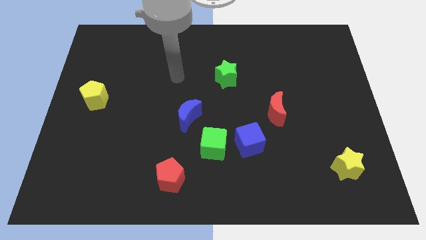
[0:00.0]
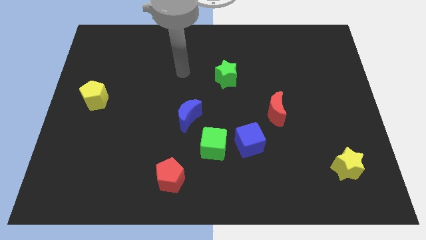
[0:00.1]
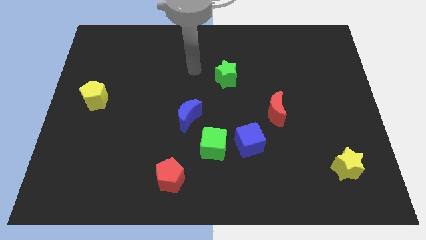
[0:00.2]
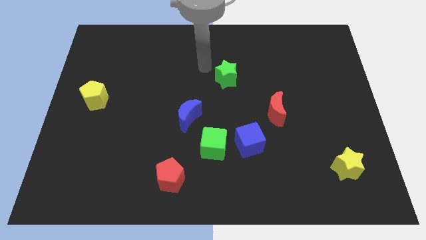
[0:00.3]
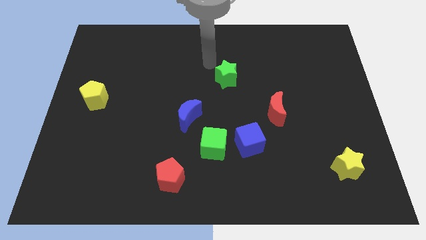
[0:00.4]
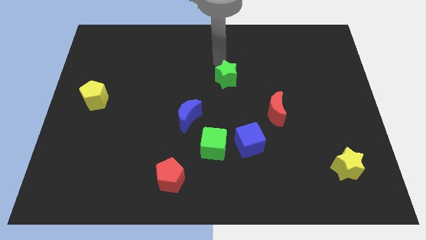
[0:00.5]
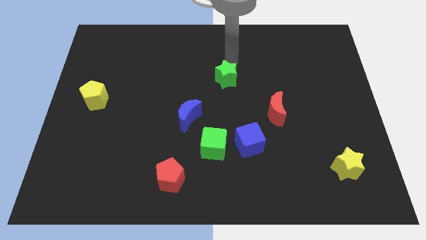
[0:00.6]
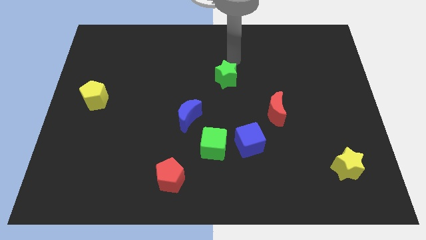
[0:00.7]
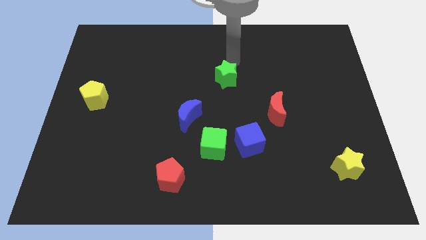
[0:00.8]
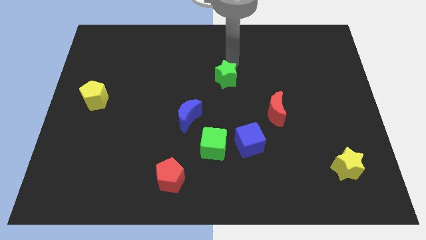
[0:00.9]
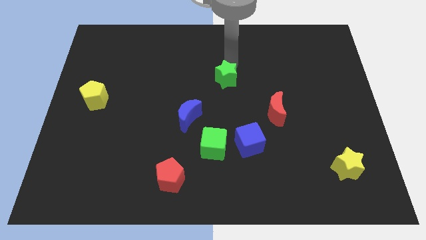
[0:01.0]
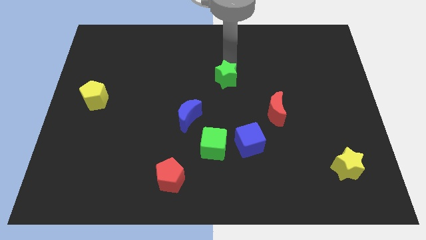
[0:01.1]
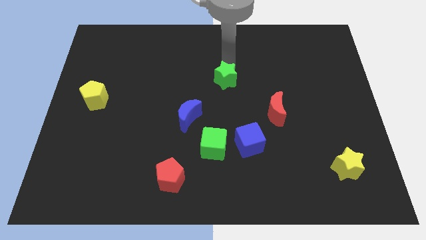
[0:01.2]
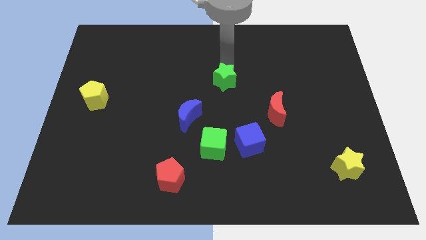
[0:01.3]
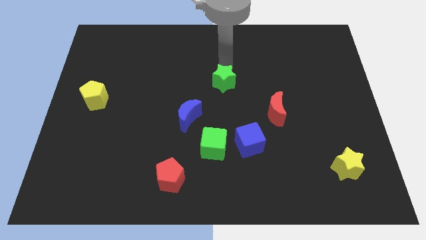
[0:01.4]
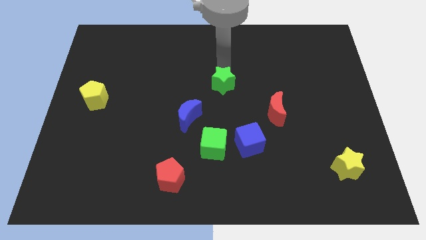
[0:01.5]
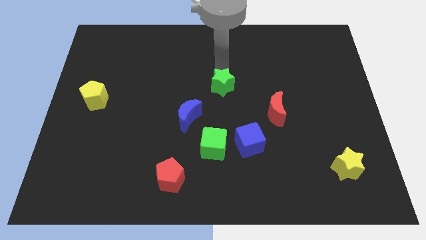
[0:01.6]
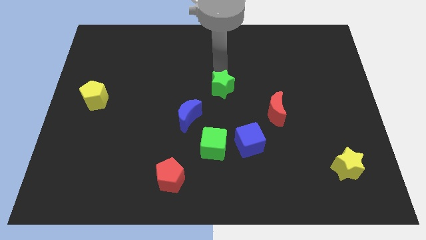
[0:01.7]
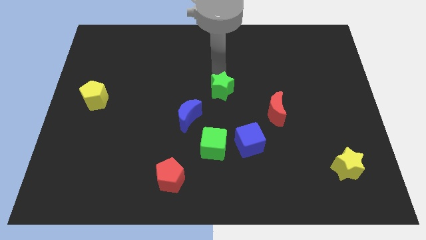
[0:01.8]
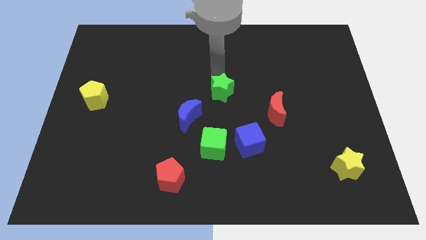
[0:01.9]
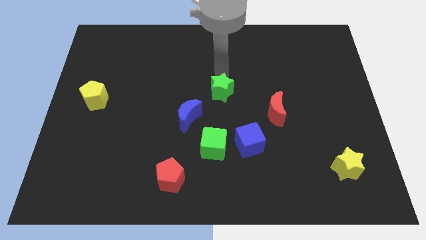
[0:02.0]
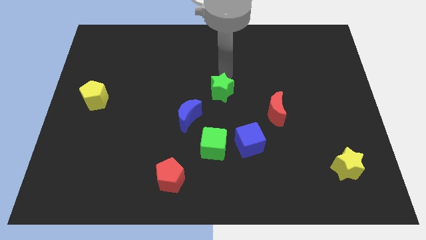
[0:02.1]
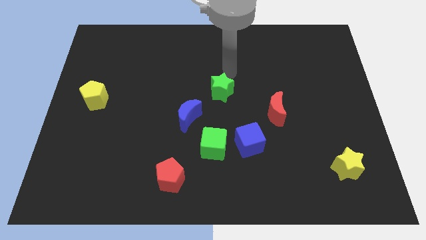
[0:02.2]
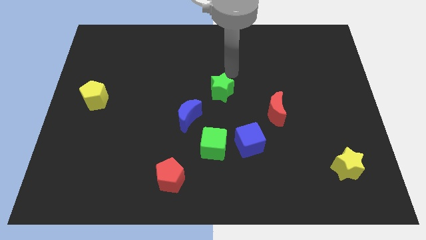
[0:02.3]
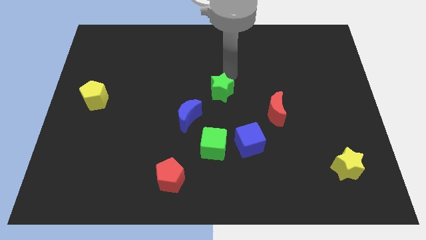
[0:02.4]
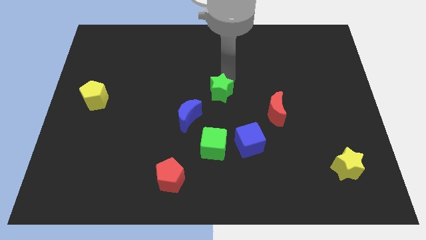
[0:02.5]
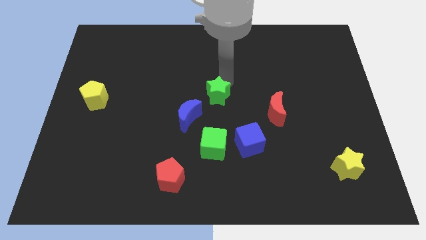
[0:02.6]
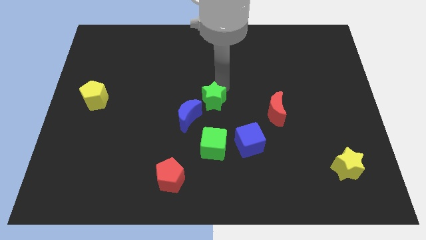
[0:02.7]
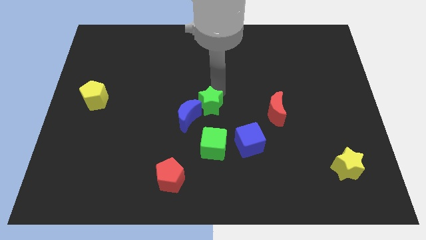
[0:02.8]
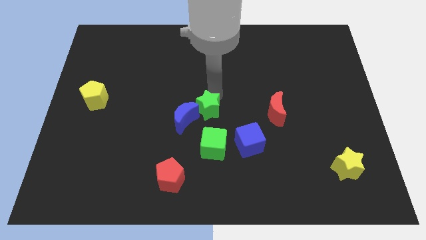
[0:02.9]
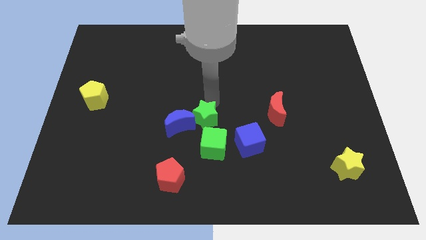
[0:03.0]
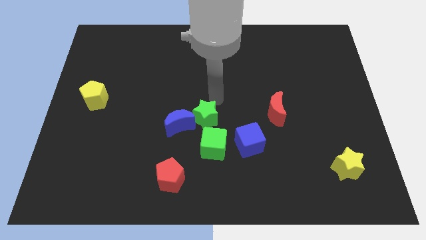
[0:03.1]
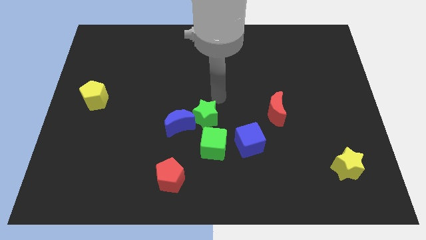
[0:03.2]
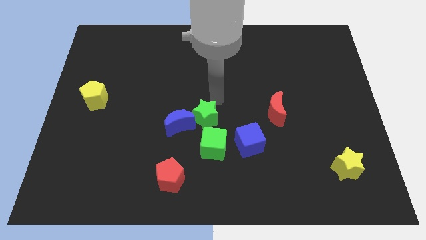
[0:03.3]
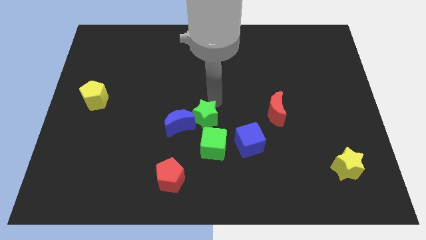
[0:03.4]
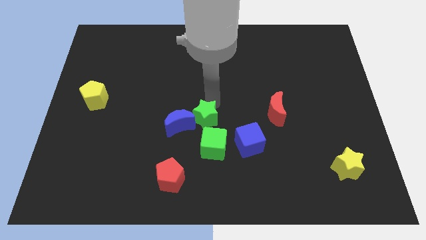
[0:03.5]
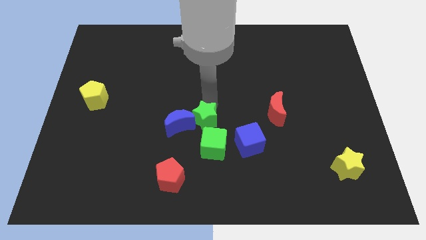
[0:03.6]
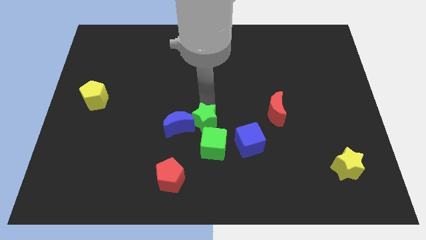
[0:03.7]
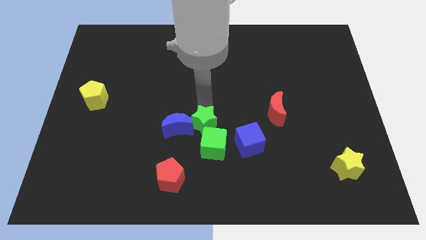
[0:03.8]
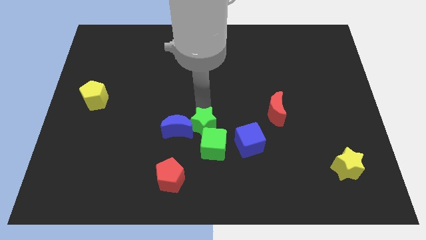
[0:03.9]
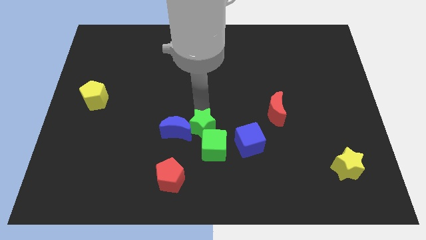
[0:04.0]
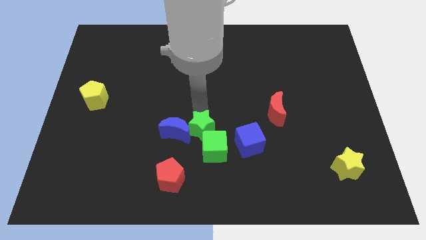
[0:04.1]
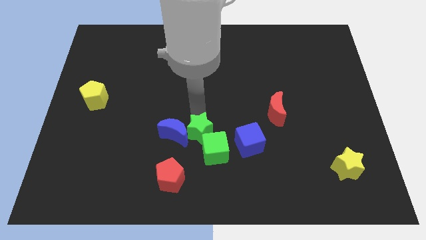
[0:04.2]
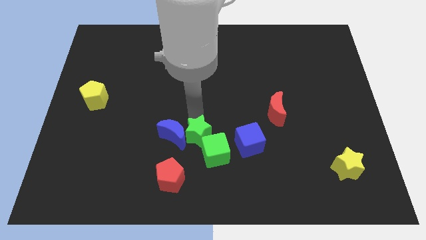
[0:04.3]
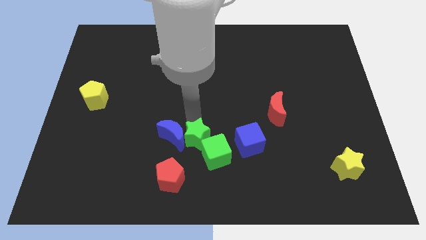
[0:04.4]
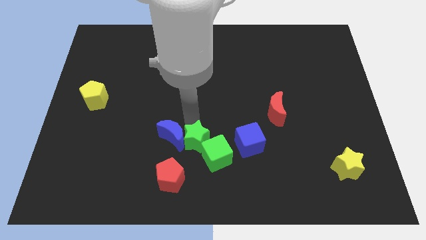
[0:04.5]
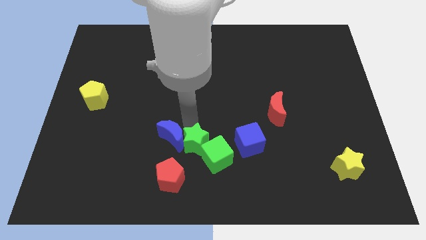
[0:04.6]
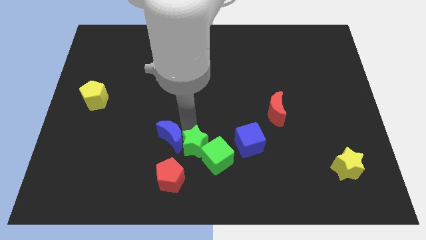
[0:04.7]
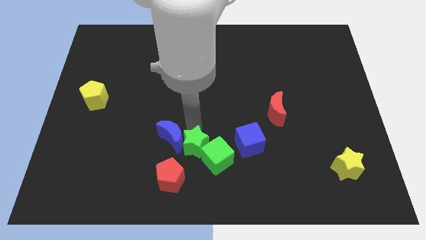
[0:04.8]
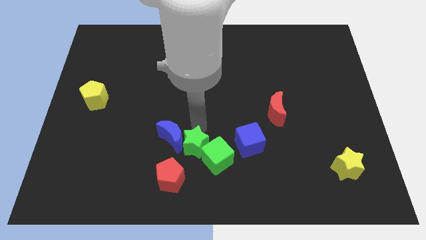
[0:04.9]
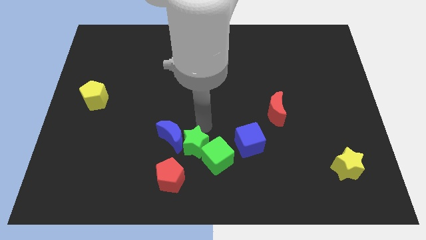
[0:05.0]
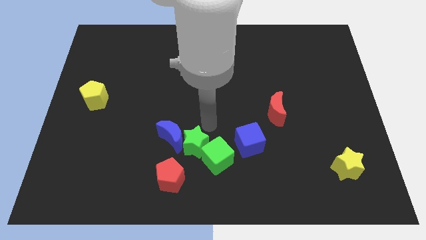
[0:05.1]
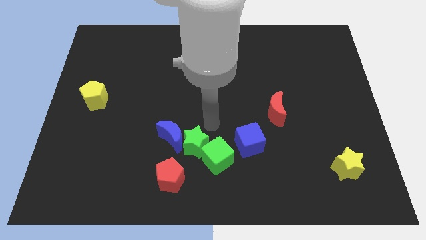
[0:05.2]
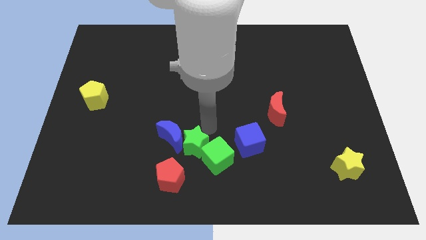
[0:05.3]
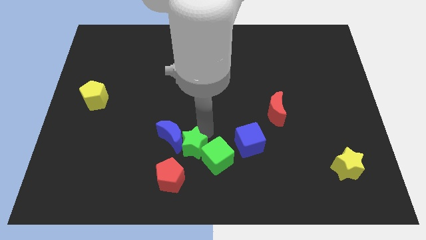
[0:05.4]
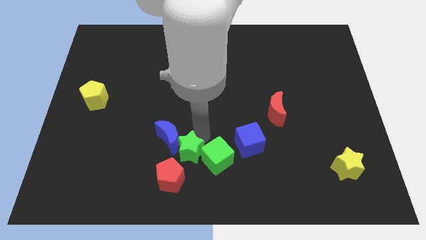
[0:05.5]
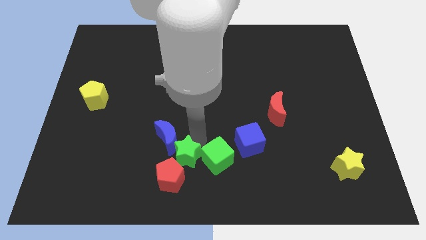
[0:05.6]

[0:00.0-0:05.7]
slide the green star next to the red pentagon

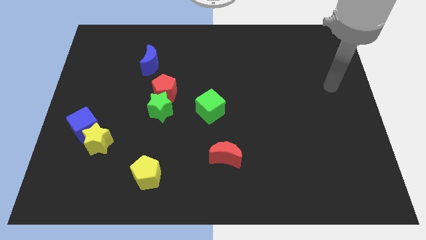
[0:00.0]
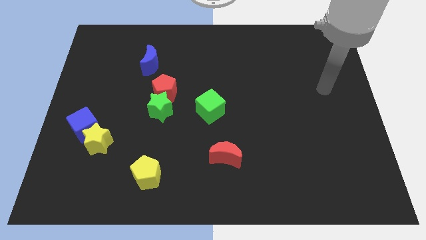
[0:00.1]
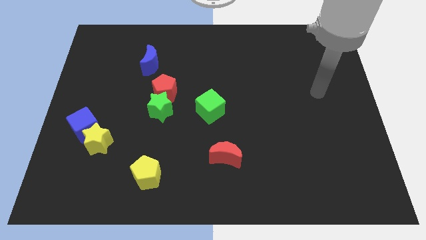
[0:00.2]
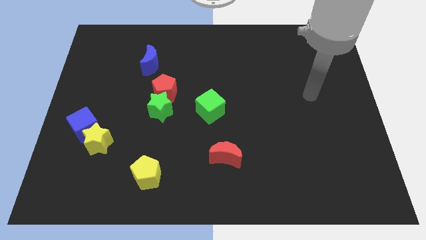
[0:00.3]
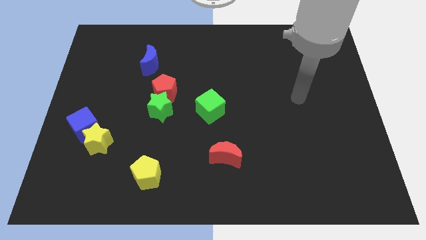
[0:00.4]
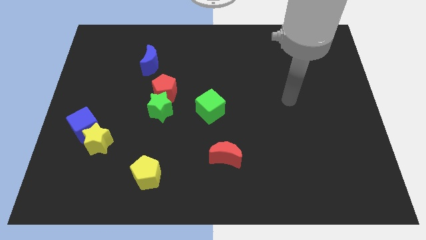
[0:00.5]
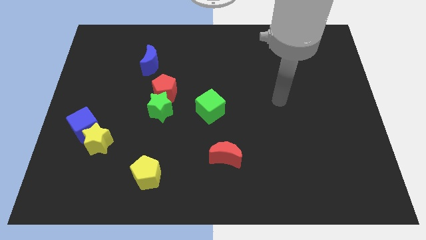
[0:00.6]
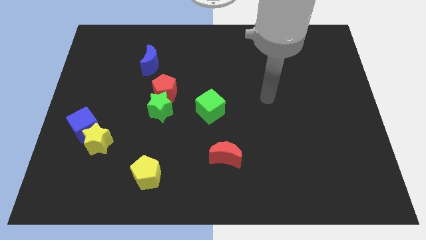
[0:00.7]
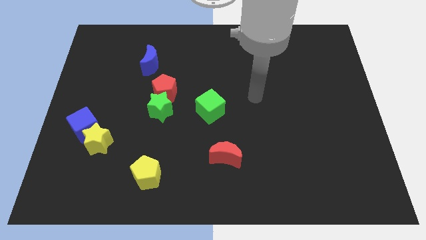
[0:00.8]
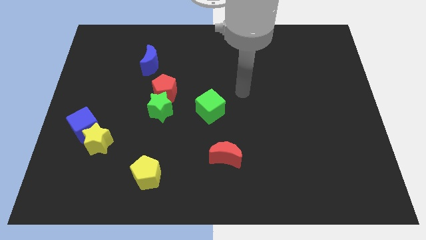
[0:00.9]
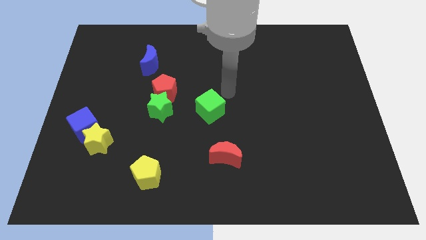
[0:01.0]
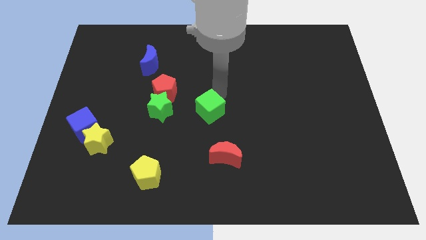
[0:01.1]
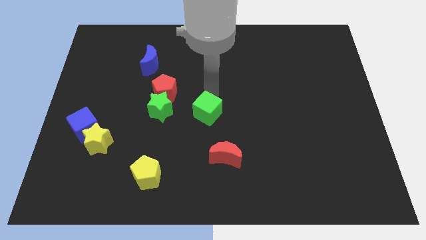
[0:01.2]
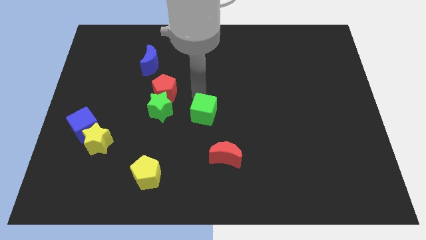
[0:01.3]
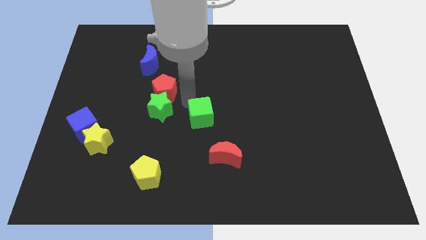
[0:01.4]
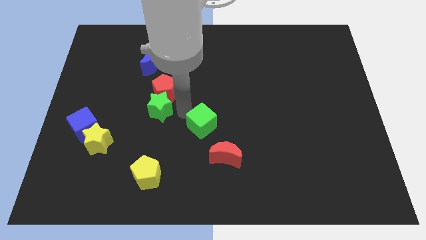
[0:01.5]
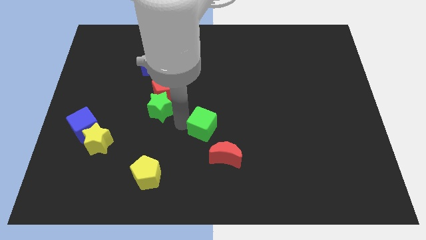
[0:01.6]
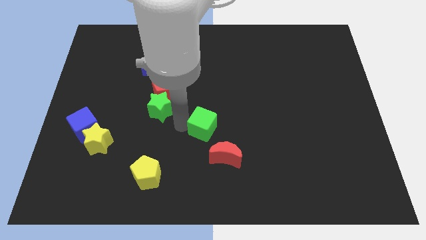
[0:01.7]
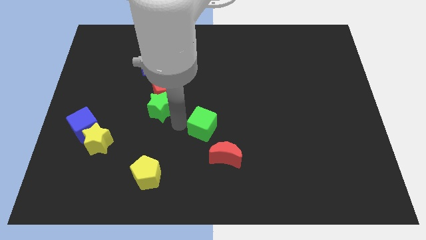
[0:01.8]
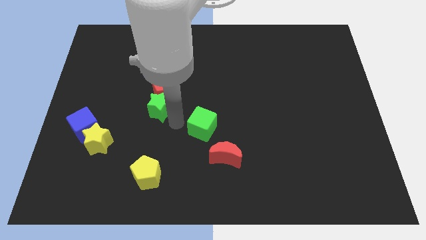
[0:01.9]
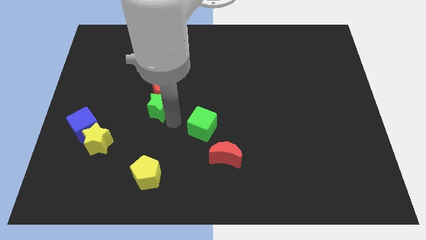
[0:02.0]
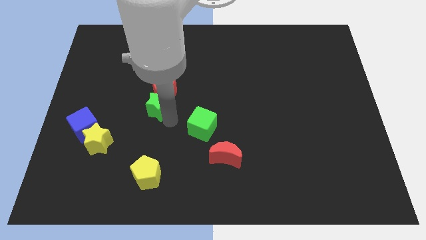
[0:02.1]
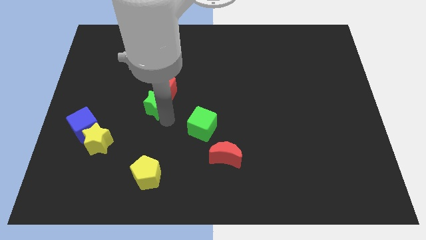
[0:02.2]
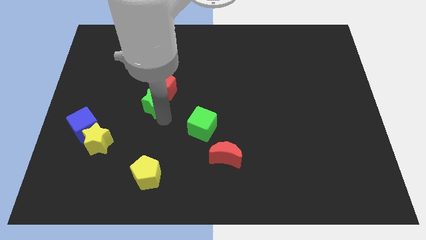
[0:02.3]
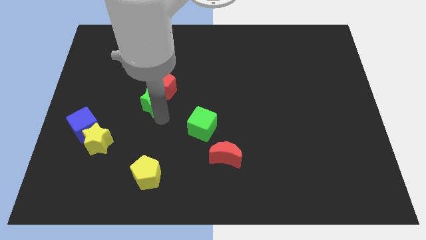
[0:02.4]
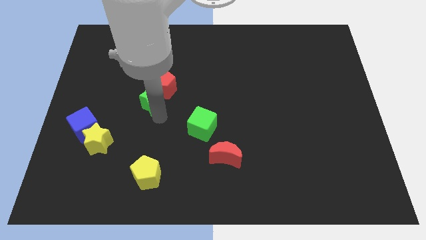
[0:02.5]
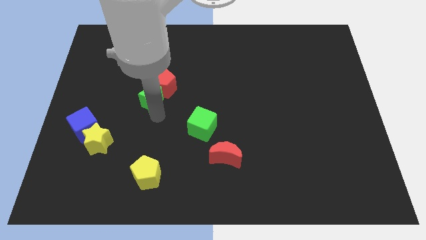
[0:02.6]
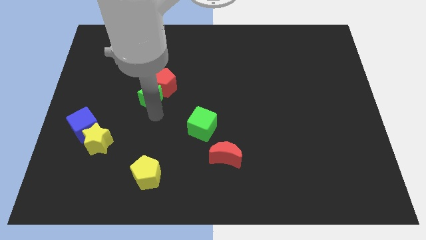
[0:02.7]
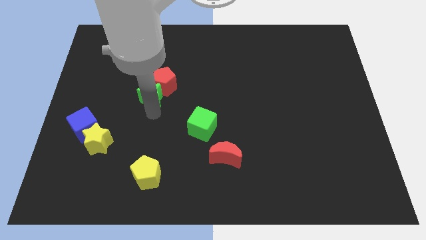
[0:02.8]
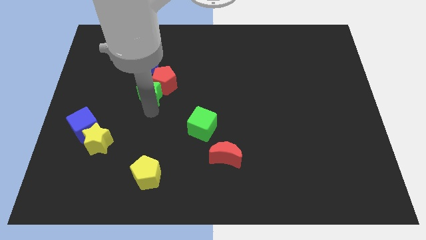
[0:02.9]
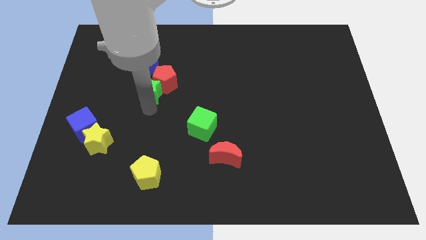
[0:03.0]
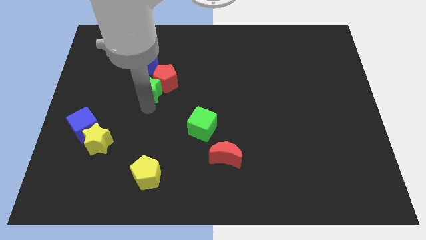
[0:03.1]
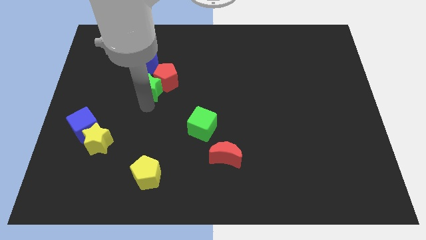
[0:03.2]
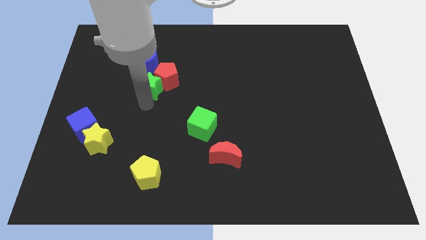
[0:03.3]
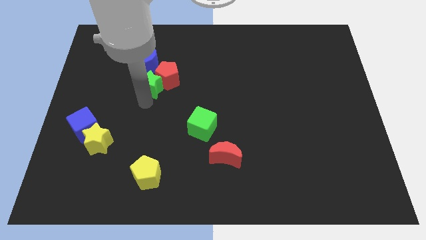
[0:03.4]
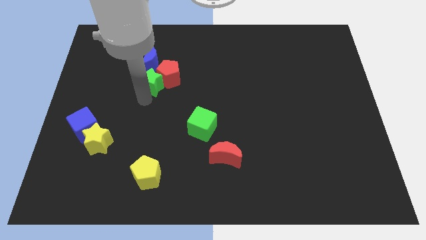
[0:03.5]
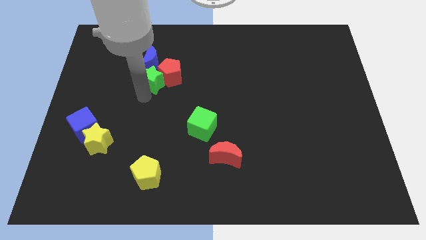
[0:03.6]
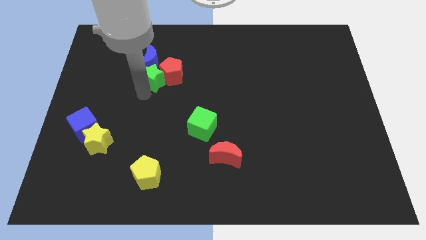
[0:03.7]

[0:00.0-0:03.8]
slide the green star to the blue moon
